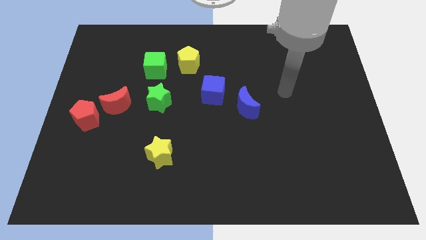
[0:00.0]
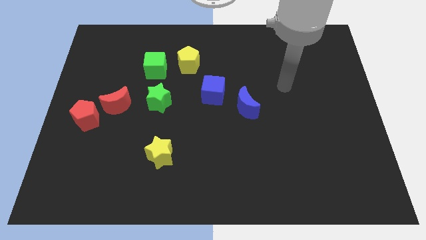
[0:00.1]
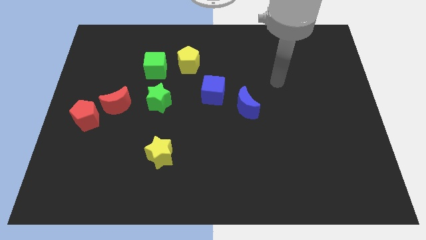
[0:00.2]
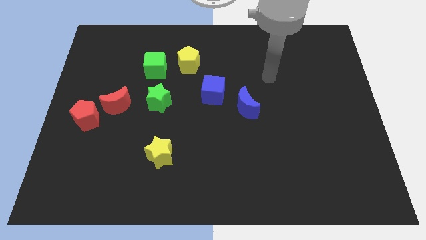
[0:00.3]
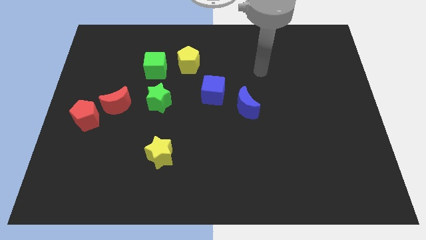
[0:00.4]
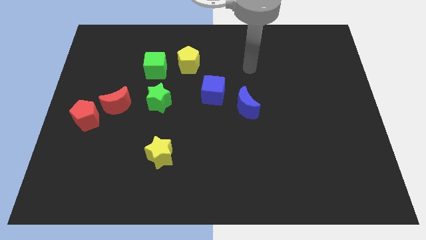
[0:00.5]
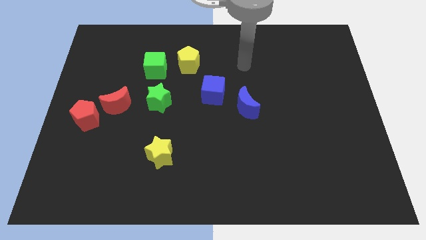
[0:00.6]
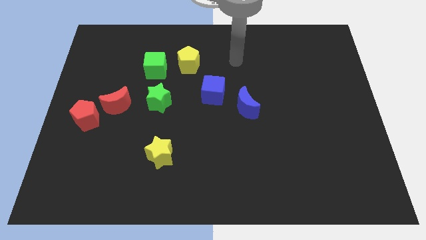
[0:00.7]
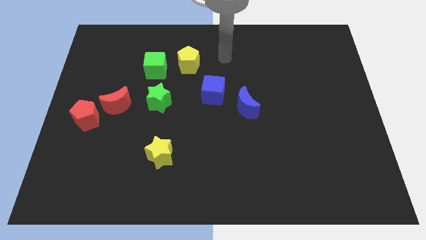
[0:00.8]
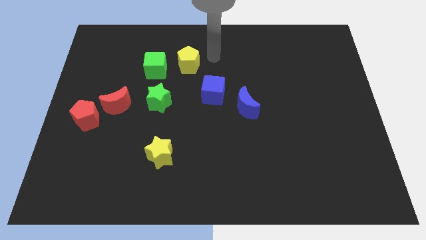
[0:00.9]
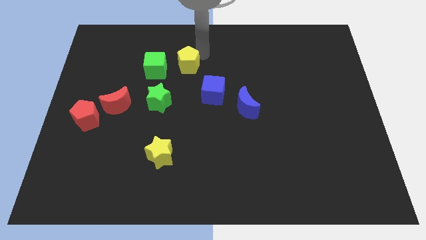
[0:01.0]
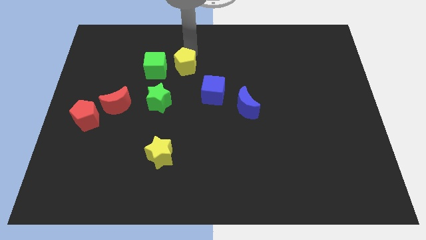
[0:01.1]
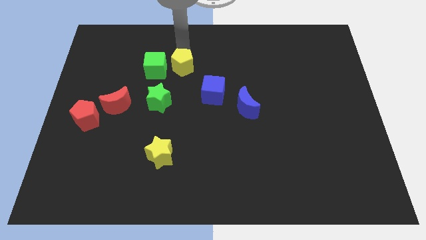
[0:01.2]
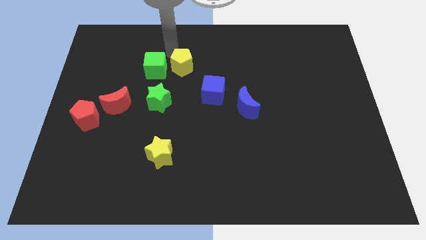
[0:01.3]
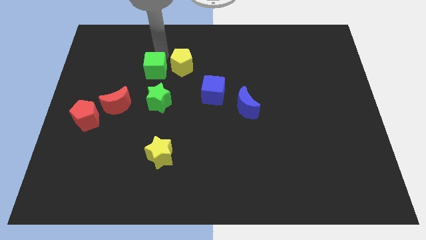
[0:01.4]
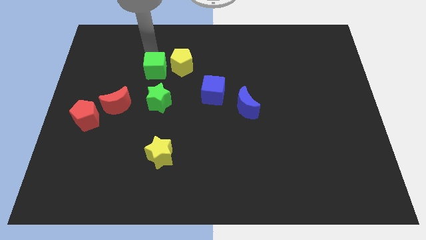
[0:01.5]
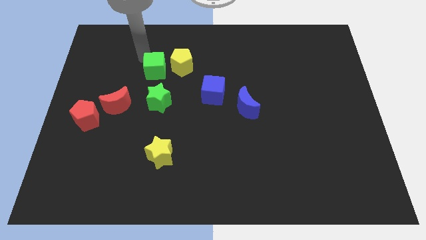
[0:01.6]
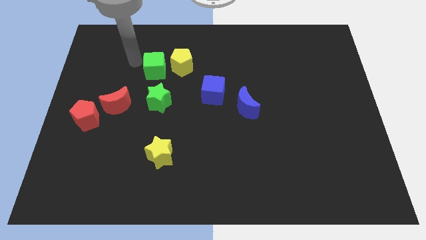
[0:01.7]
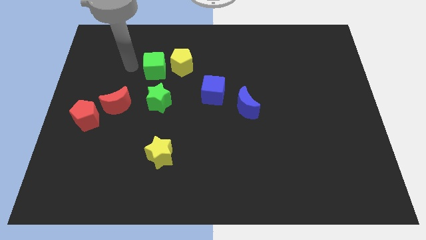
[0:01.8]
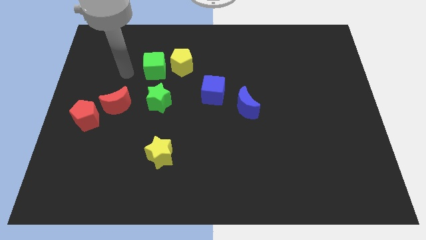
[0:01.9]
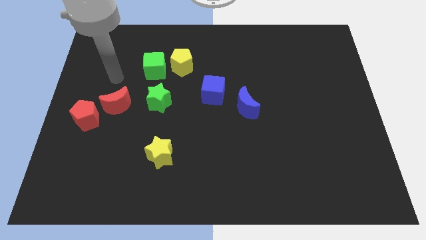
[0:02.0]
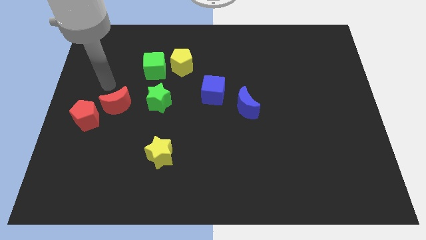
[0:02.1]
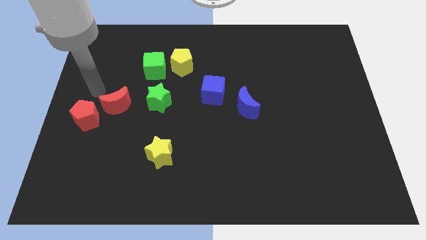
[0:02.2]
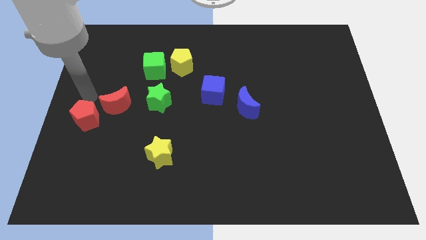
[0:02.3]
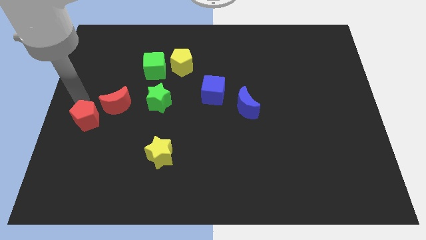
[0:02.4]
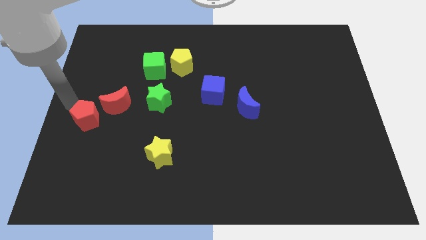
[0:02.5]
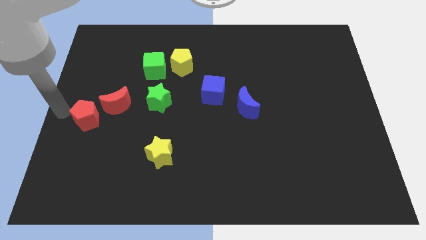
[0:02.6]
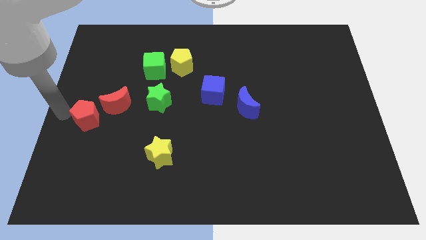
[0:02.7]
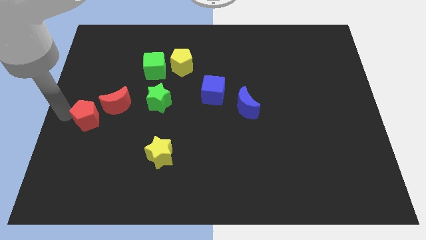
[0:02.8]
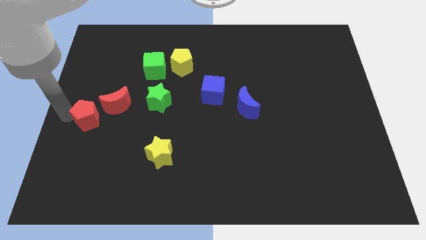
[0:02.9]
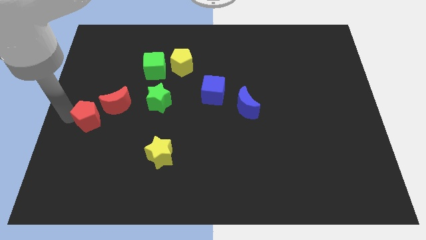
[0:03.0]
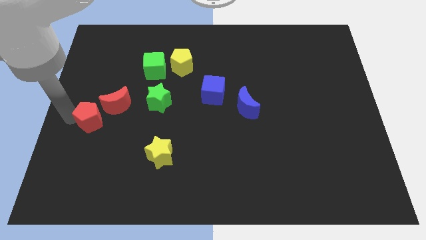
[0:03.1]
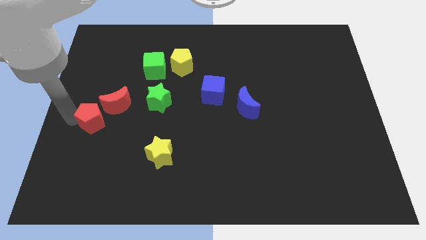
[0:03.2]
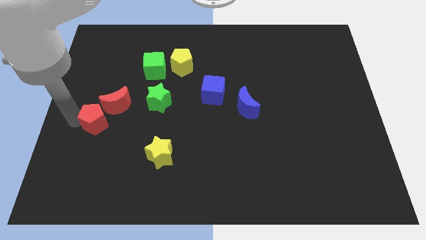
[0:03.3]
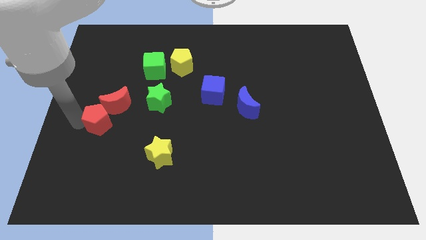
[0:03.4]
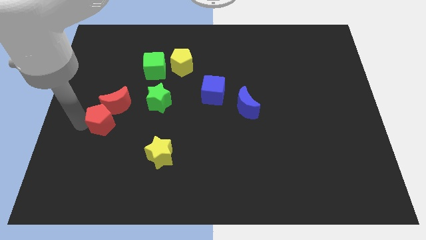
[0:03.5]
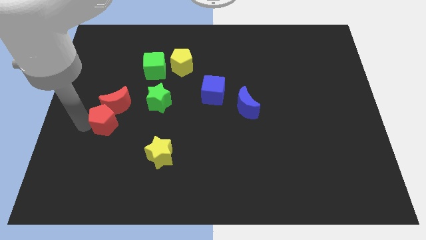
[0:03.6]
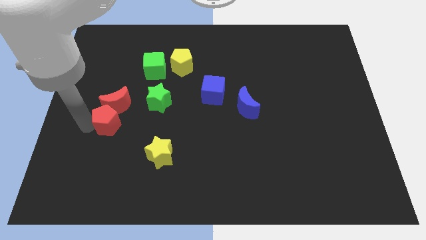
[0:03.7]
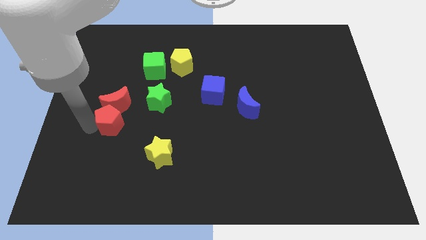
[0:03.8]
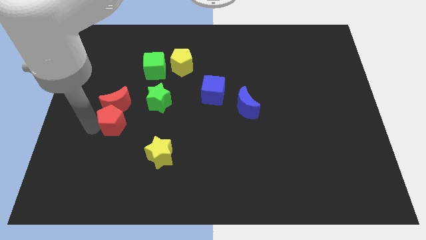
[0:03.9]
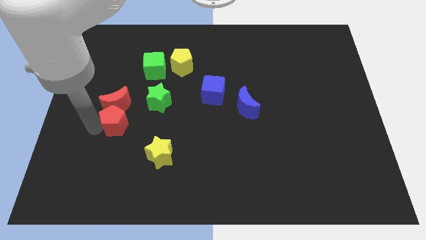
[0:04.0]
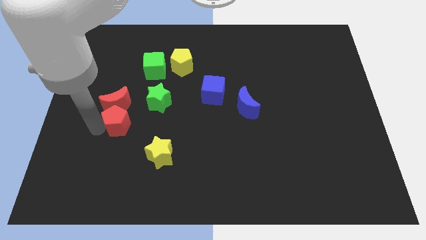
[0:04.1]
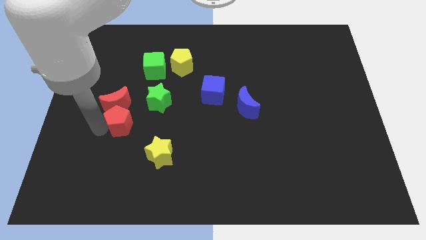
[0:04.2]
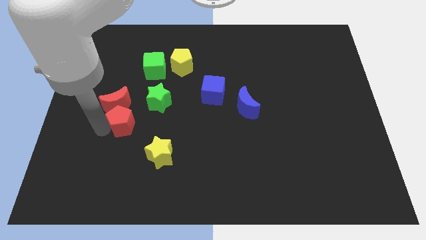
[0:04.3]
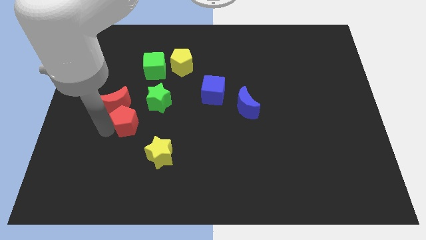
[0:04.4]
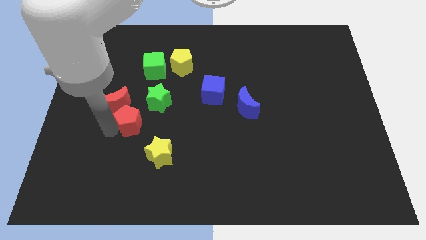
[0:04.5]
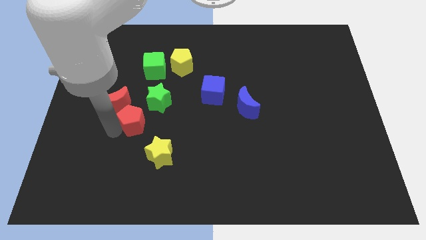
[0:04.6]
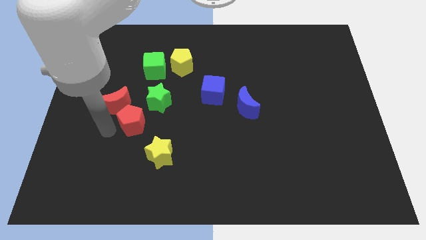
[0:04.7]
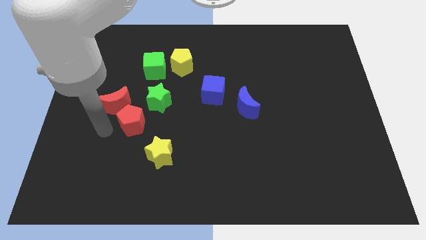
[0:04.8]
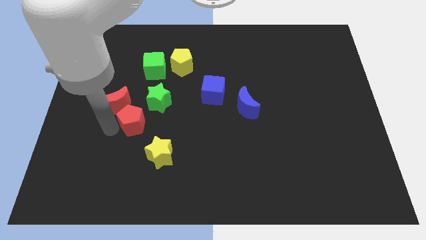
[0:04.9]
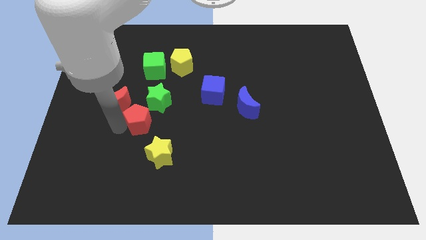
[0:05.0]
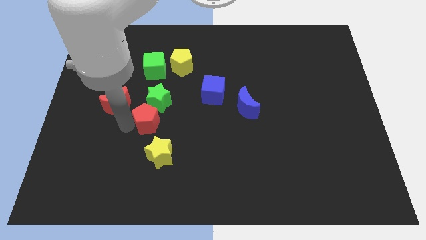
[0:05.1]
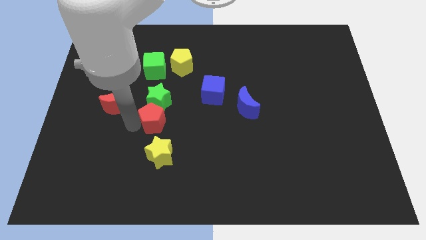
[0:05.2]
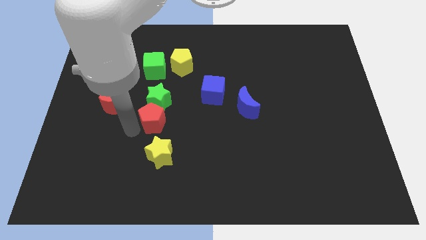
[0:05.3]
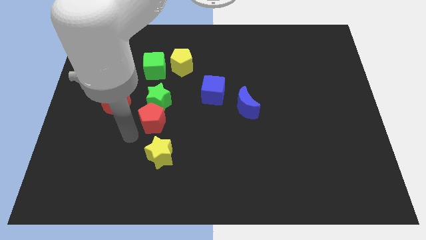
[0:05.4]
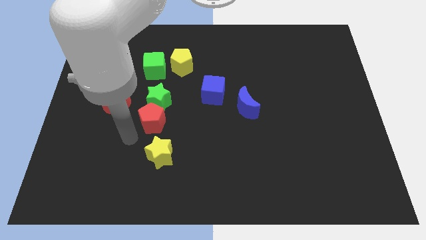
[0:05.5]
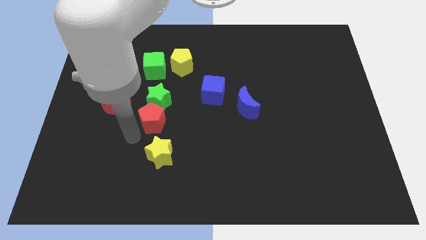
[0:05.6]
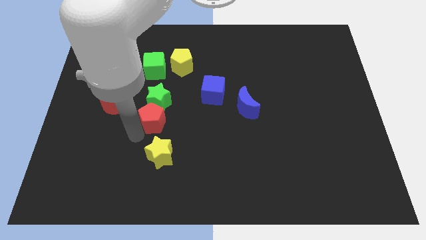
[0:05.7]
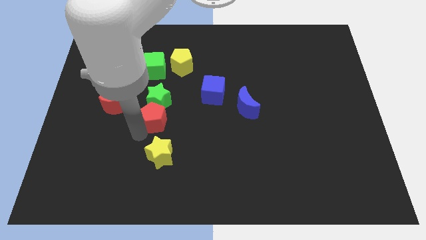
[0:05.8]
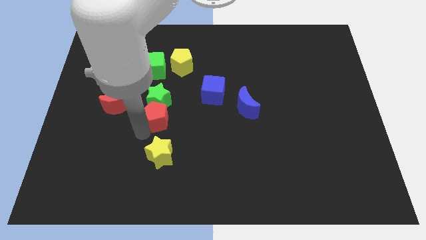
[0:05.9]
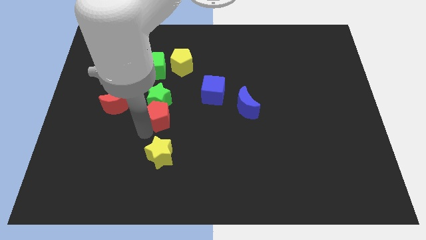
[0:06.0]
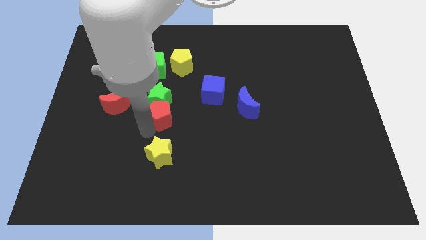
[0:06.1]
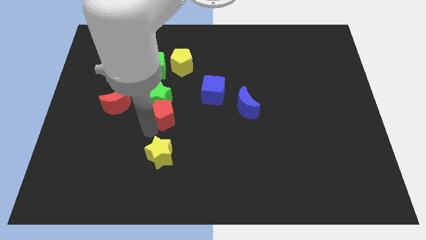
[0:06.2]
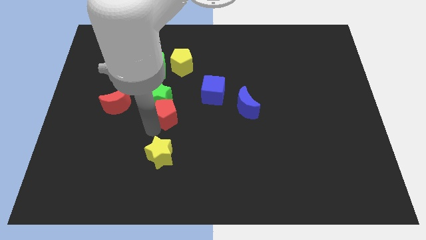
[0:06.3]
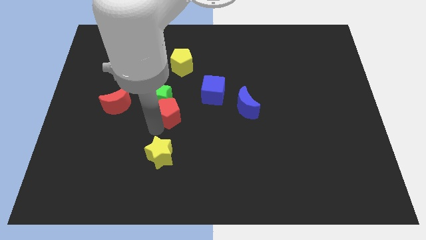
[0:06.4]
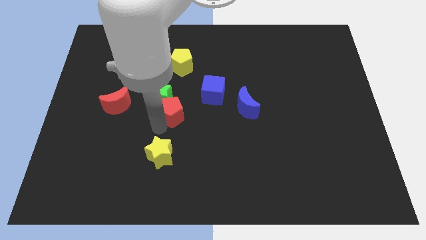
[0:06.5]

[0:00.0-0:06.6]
push the red pentagon to the bottom of the yellow pentagon

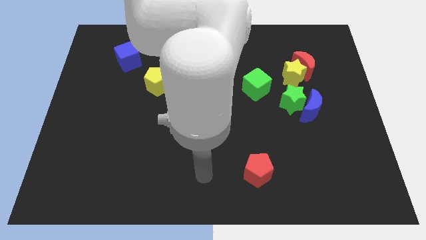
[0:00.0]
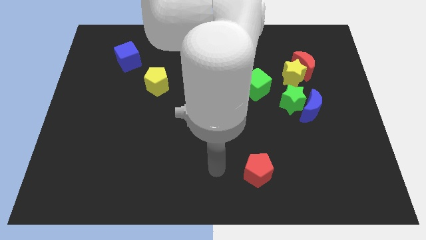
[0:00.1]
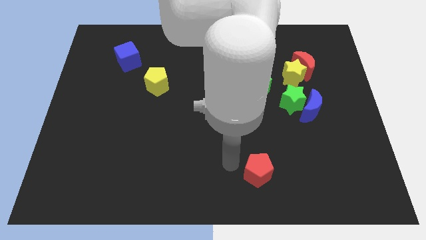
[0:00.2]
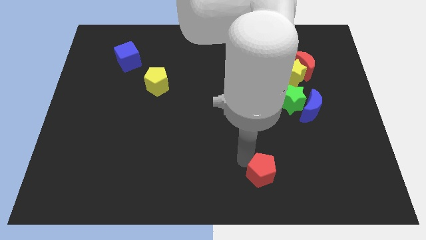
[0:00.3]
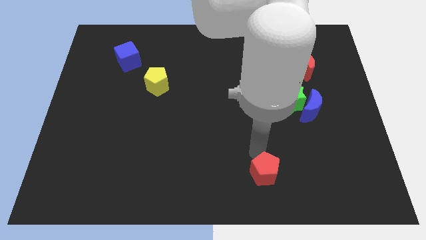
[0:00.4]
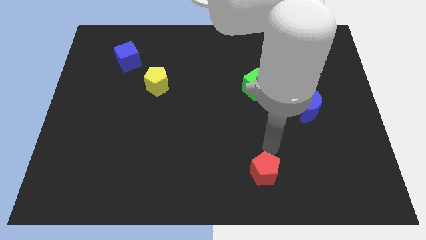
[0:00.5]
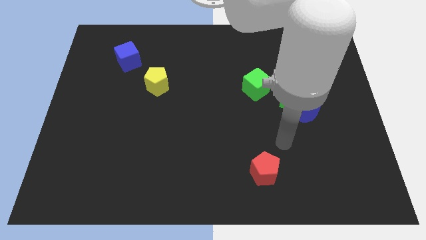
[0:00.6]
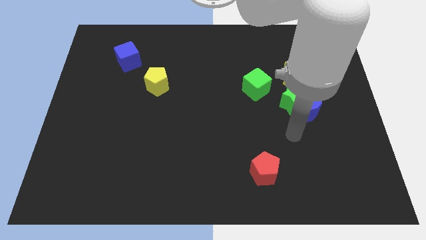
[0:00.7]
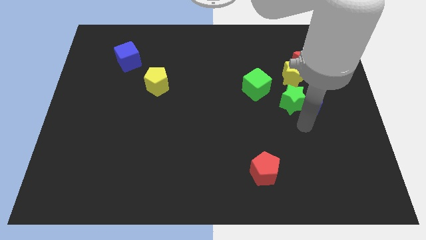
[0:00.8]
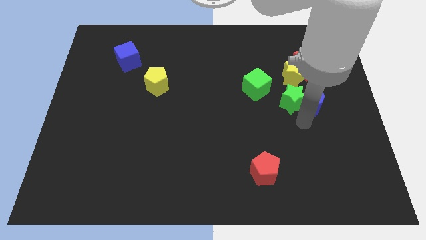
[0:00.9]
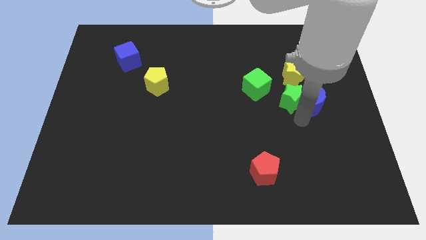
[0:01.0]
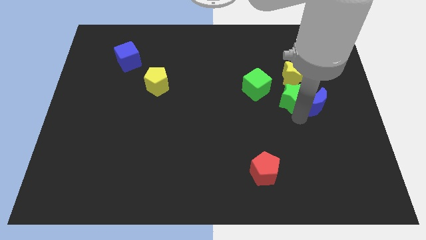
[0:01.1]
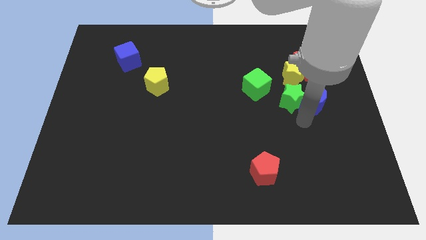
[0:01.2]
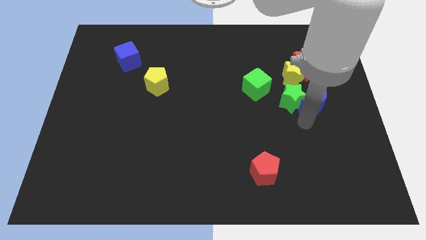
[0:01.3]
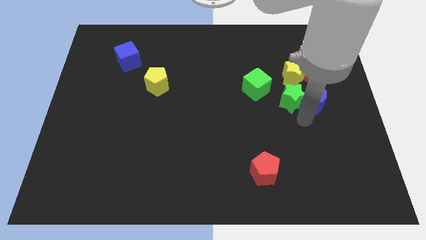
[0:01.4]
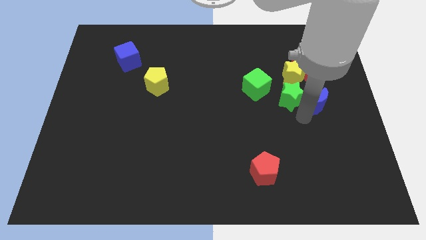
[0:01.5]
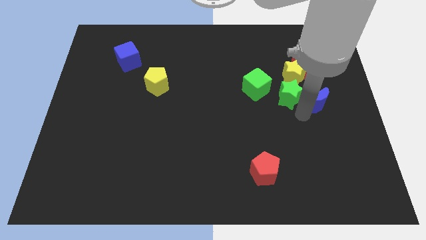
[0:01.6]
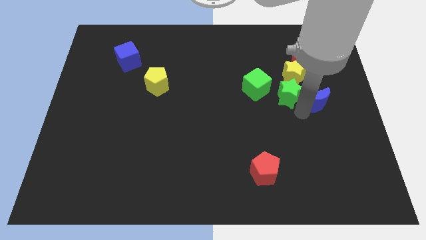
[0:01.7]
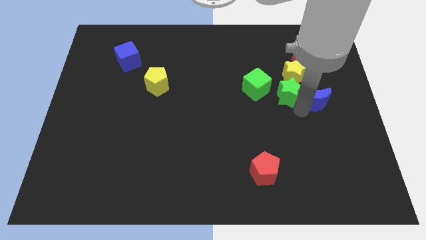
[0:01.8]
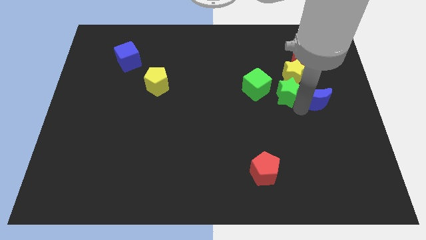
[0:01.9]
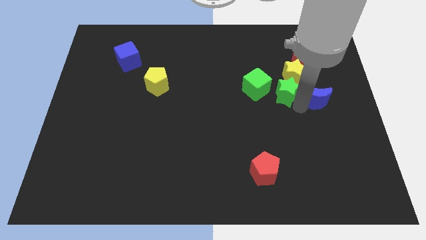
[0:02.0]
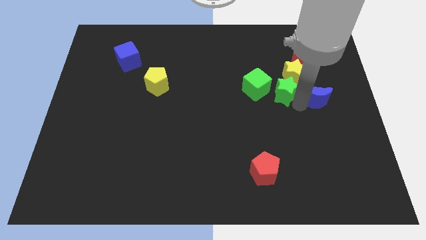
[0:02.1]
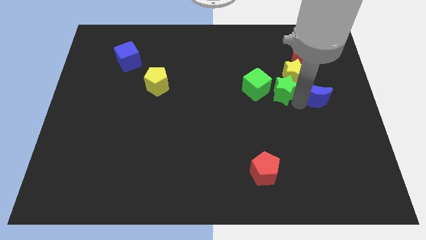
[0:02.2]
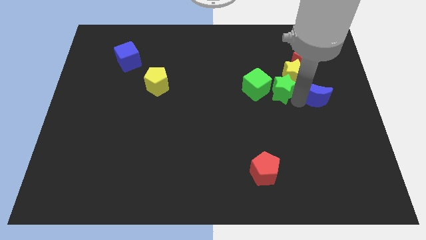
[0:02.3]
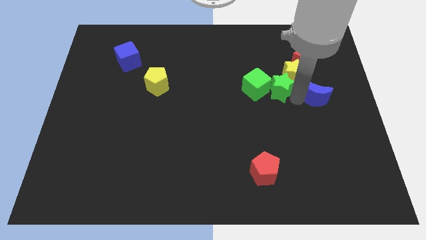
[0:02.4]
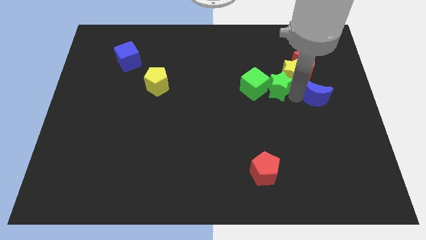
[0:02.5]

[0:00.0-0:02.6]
slide the green star diagonally up and to the right of the green cube
